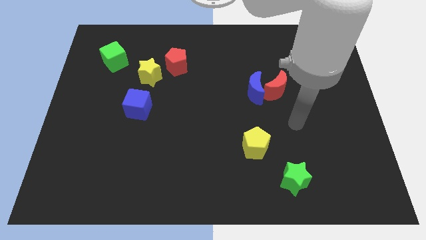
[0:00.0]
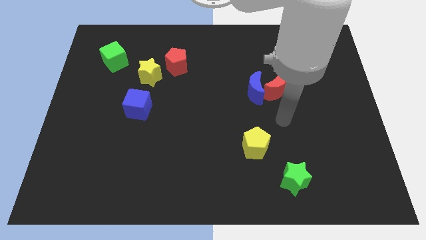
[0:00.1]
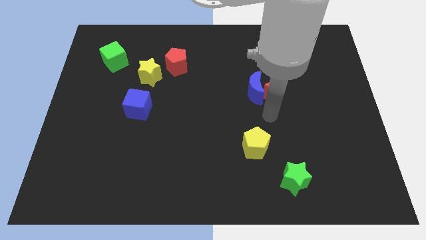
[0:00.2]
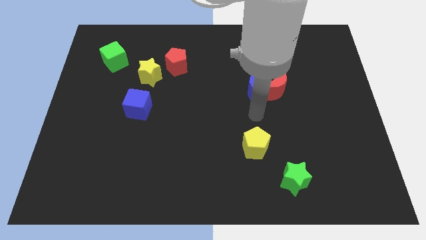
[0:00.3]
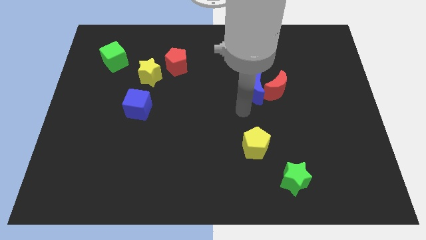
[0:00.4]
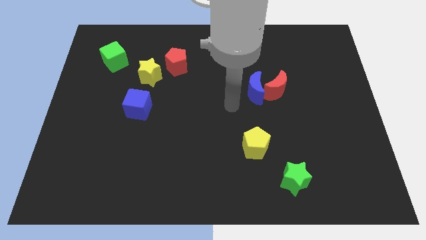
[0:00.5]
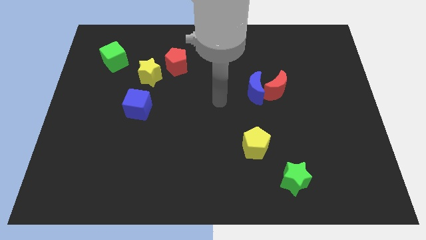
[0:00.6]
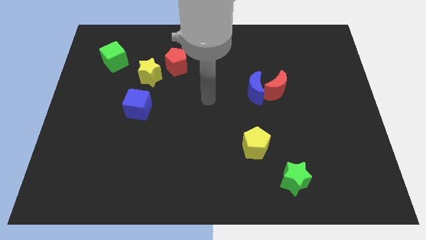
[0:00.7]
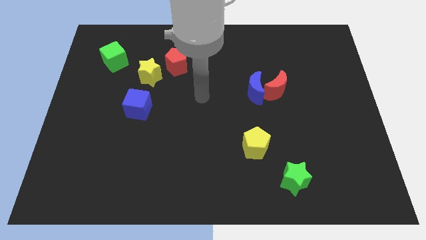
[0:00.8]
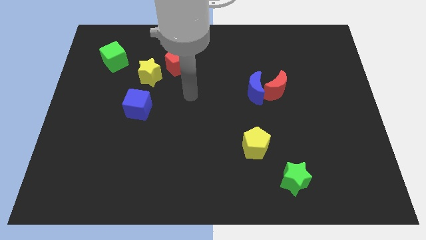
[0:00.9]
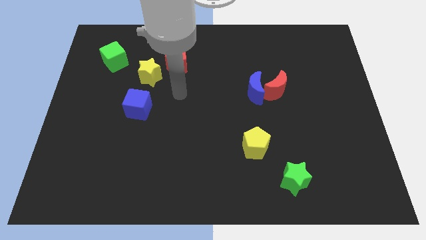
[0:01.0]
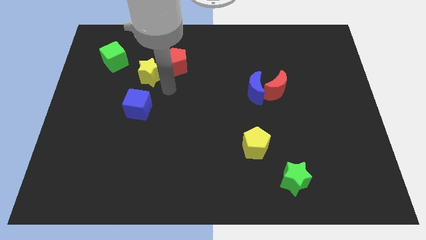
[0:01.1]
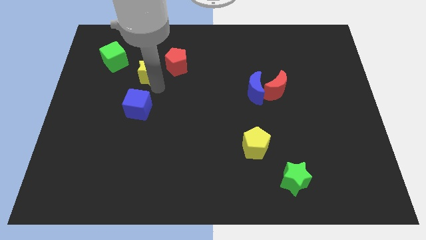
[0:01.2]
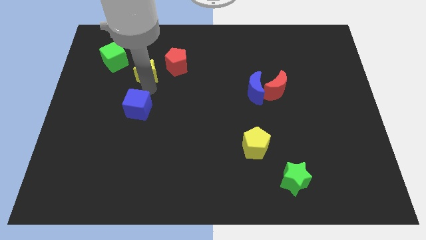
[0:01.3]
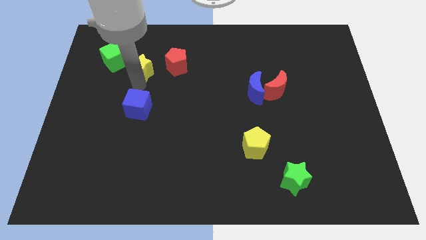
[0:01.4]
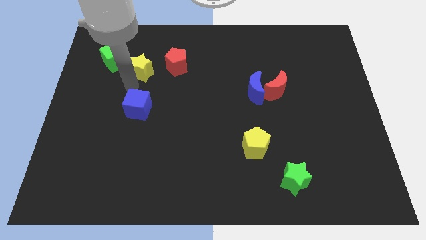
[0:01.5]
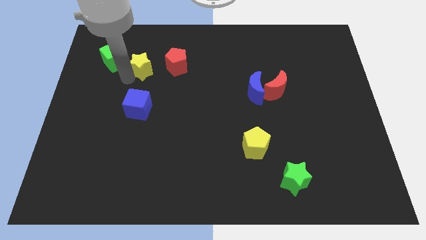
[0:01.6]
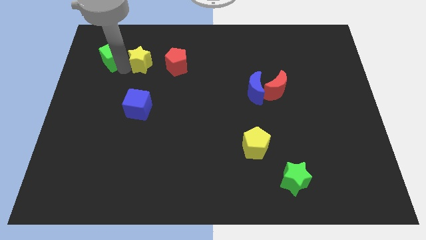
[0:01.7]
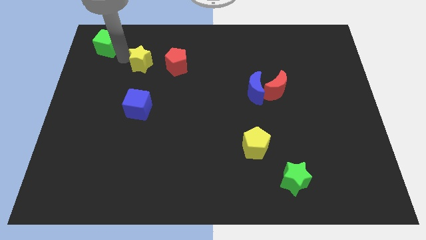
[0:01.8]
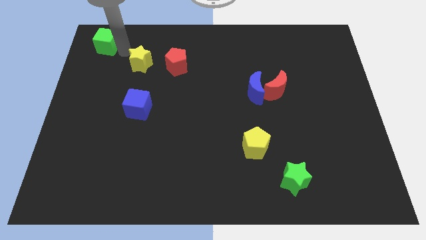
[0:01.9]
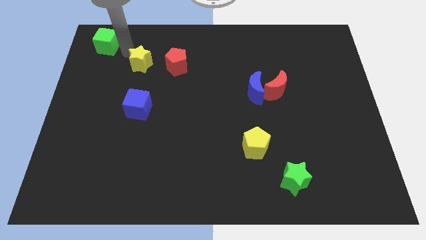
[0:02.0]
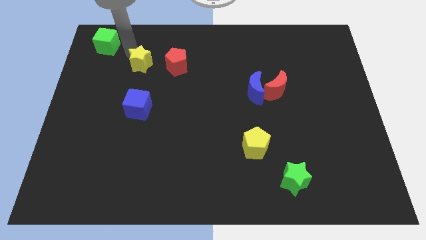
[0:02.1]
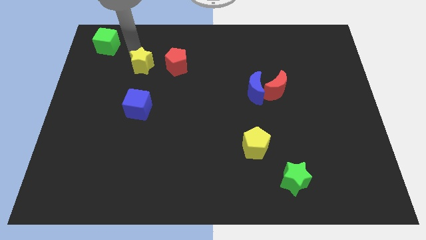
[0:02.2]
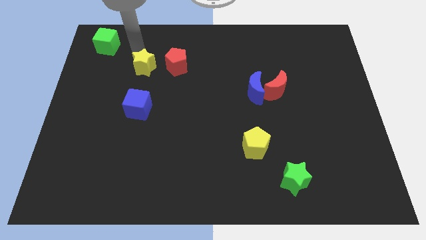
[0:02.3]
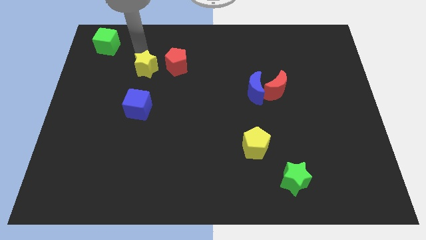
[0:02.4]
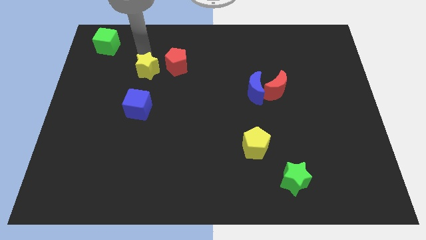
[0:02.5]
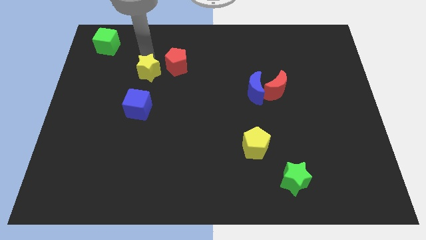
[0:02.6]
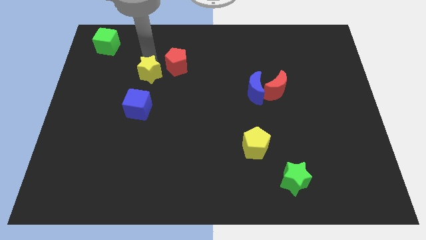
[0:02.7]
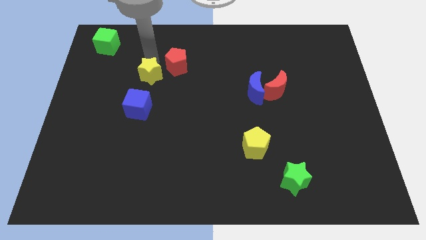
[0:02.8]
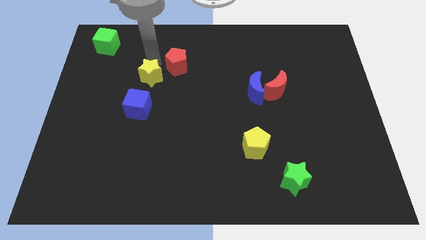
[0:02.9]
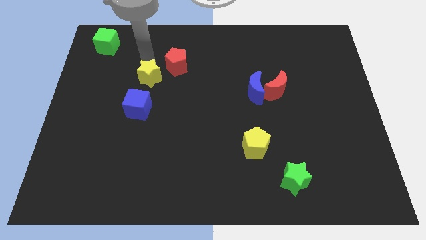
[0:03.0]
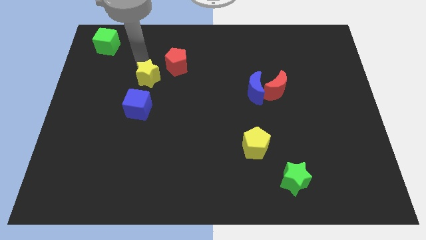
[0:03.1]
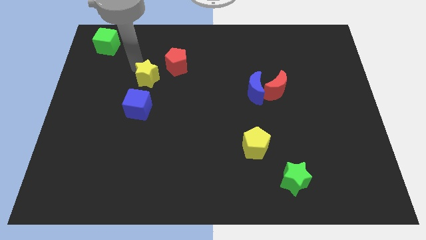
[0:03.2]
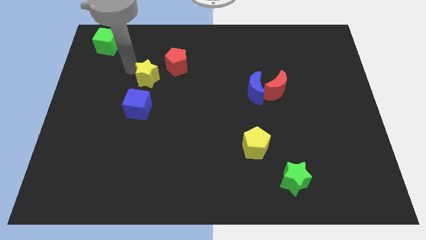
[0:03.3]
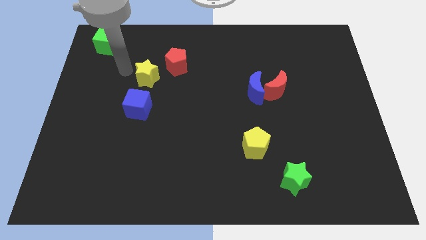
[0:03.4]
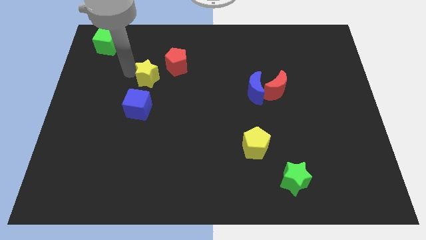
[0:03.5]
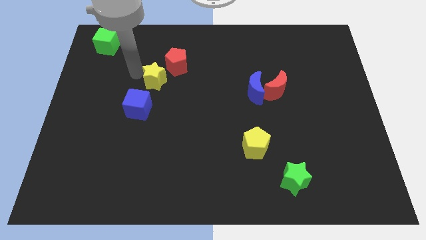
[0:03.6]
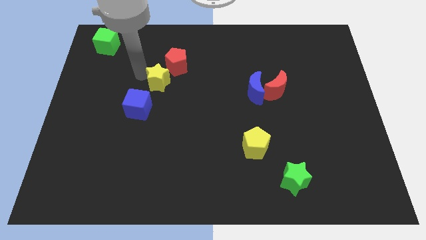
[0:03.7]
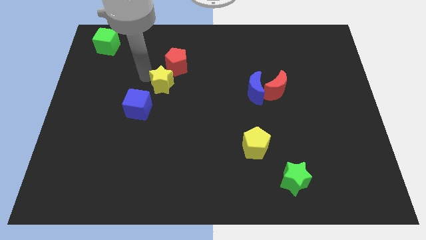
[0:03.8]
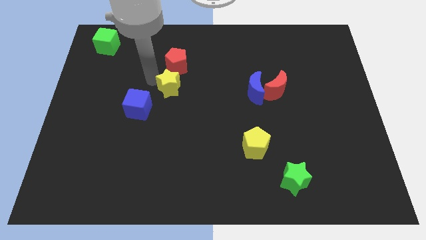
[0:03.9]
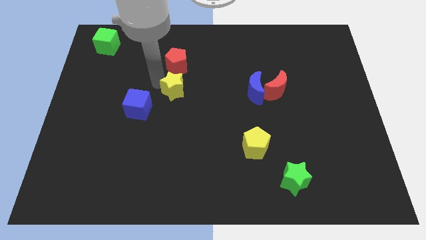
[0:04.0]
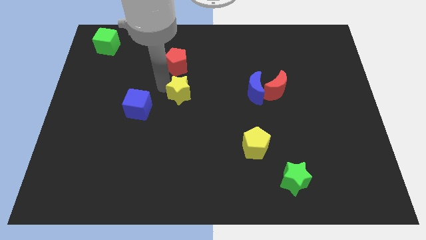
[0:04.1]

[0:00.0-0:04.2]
slightly slide the yellow star right

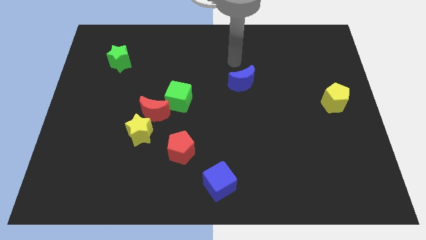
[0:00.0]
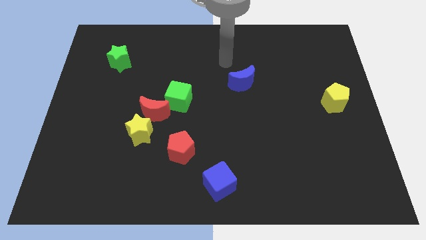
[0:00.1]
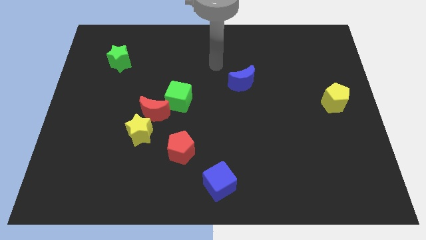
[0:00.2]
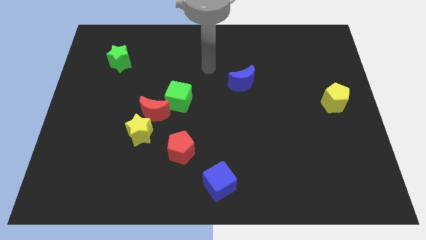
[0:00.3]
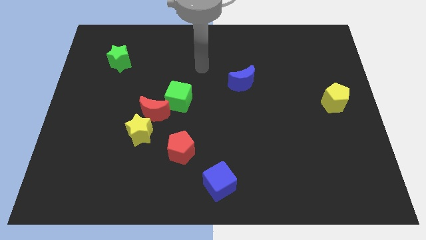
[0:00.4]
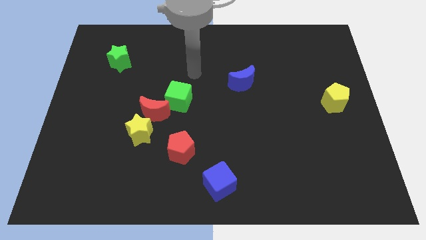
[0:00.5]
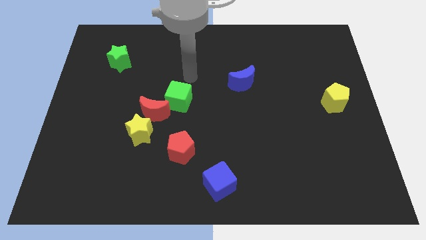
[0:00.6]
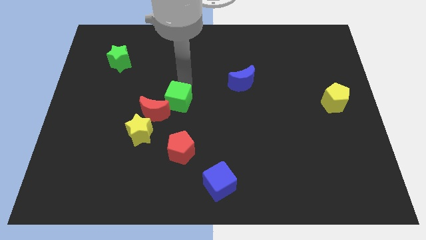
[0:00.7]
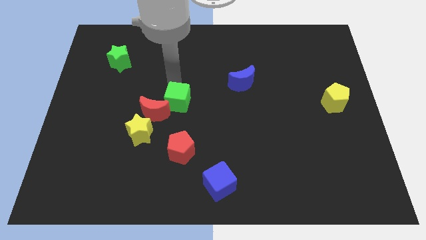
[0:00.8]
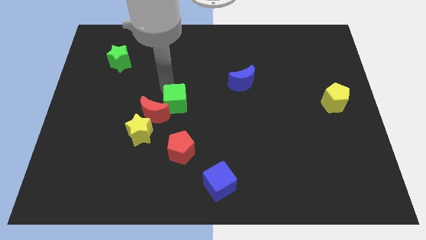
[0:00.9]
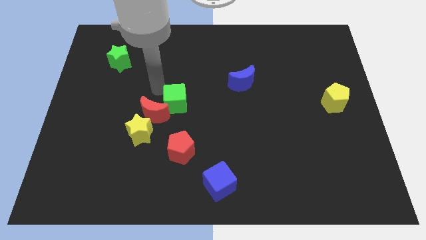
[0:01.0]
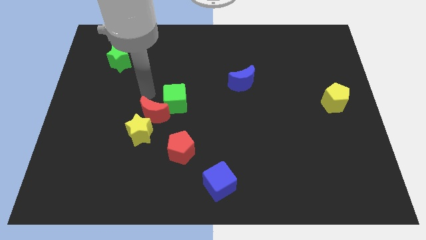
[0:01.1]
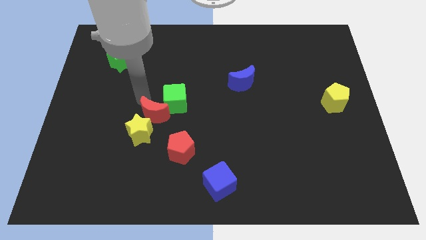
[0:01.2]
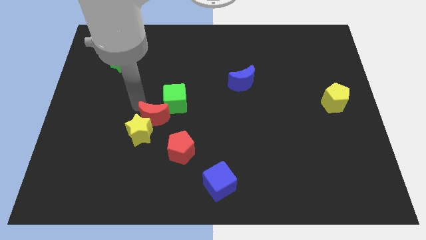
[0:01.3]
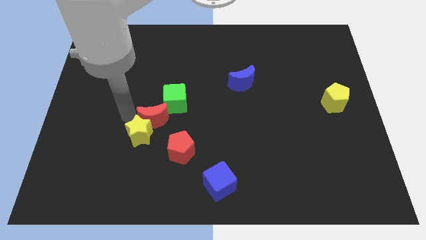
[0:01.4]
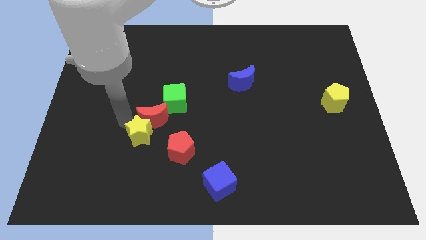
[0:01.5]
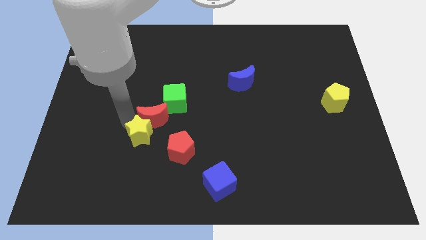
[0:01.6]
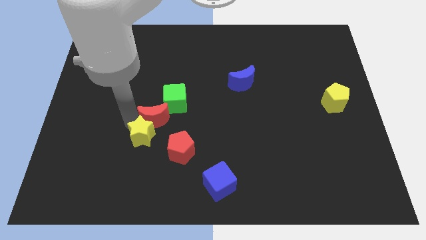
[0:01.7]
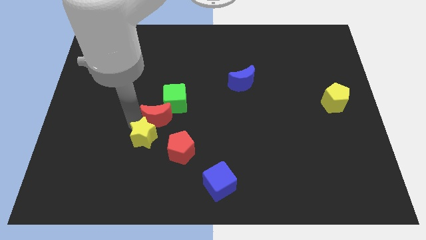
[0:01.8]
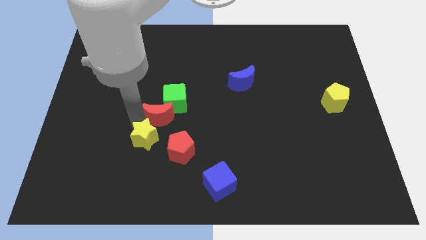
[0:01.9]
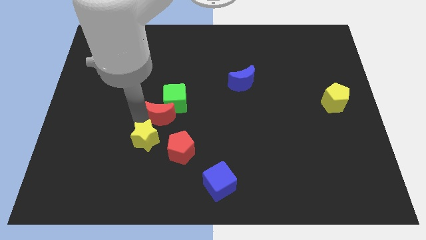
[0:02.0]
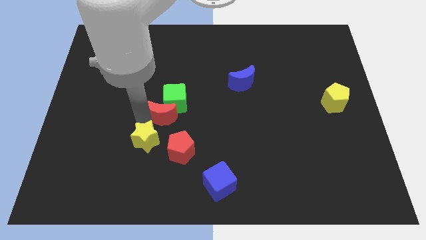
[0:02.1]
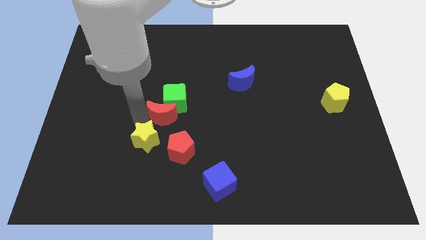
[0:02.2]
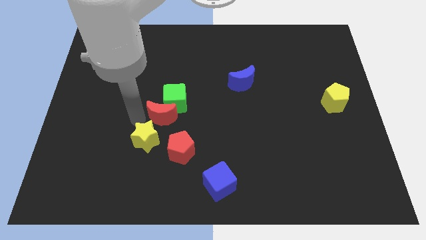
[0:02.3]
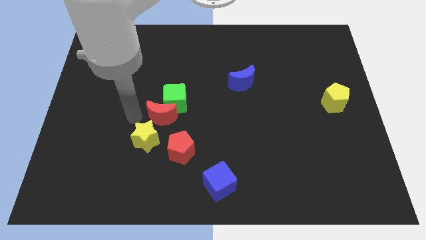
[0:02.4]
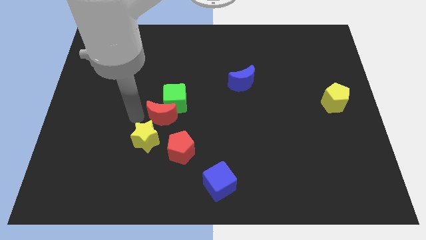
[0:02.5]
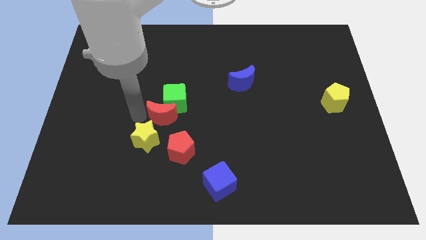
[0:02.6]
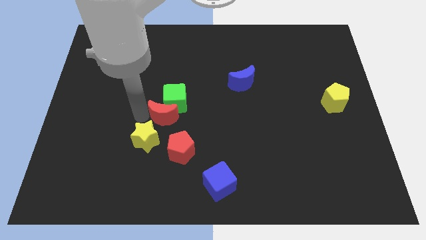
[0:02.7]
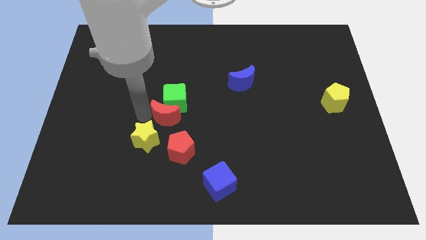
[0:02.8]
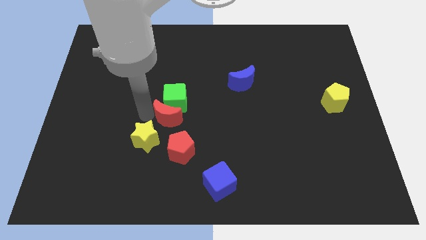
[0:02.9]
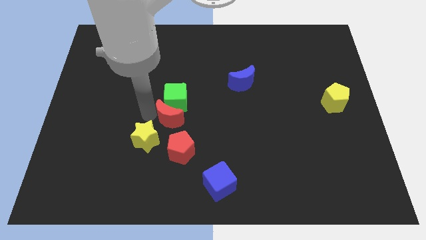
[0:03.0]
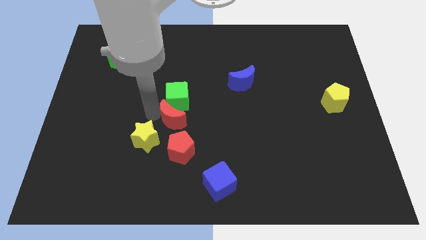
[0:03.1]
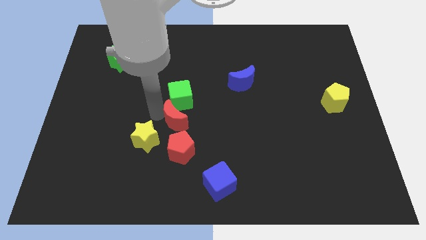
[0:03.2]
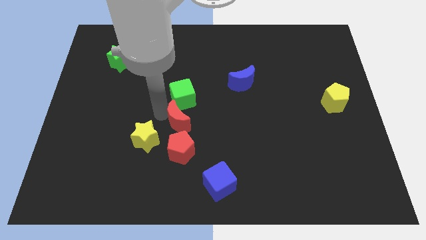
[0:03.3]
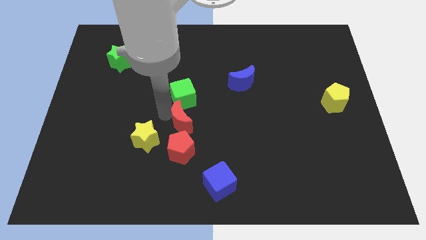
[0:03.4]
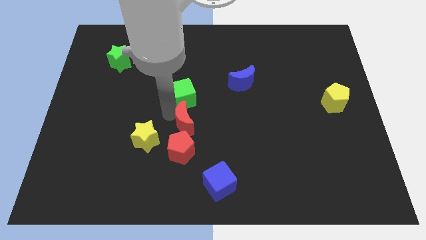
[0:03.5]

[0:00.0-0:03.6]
move the red moon to the right a bit

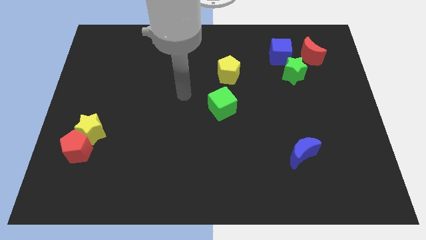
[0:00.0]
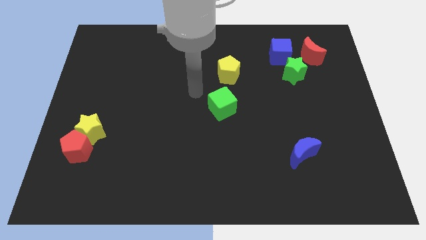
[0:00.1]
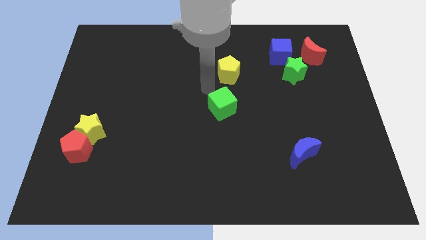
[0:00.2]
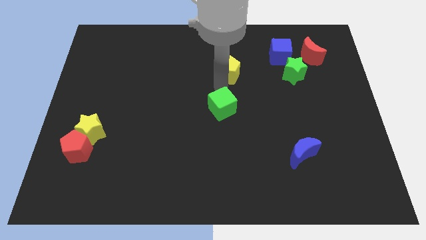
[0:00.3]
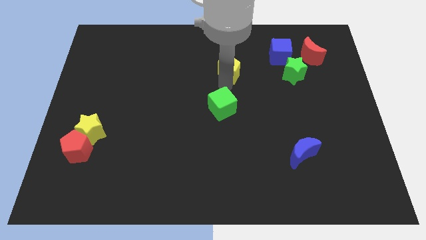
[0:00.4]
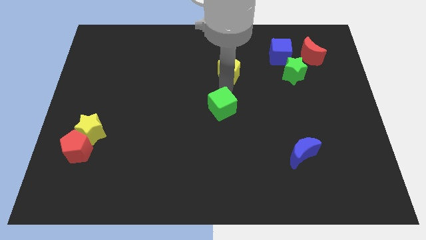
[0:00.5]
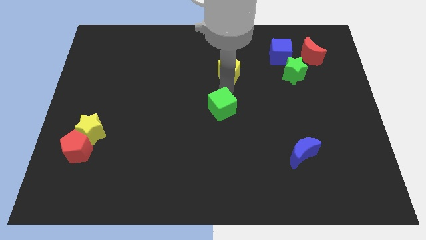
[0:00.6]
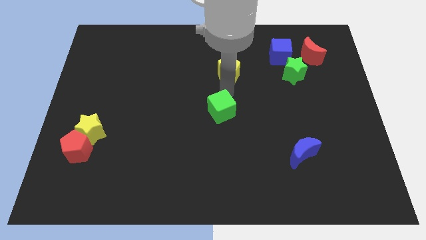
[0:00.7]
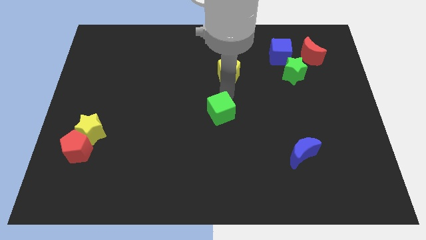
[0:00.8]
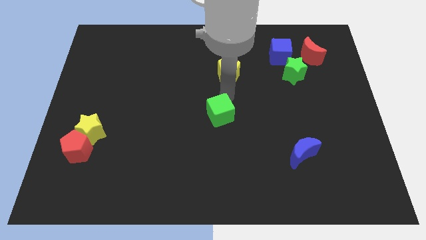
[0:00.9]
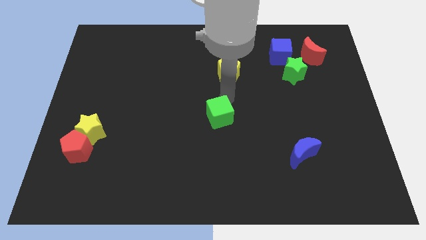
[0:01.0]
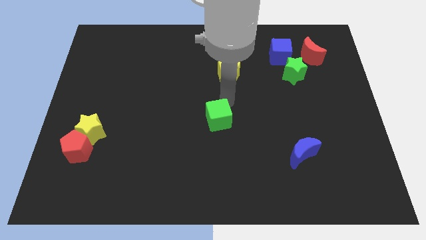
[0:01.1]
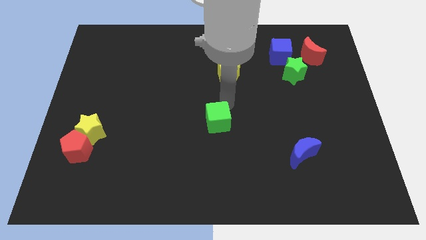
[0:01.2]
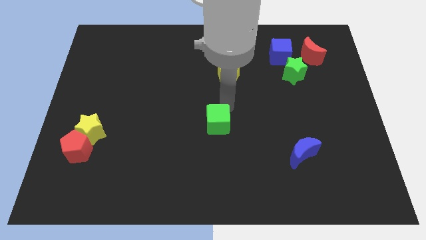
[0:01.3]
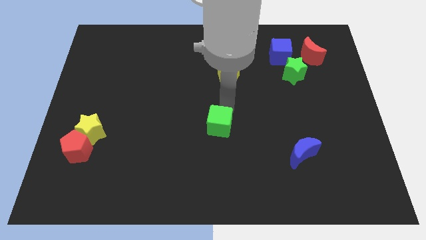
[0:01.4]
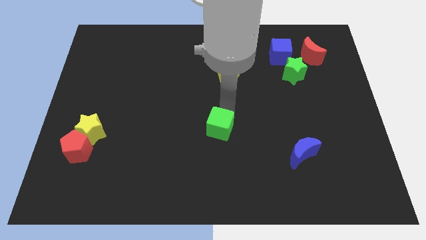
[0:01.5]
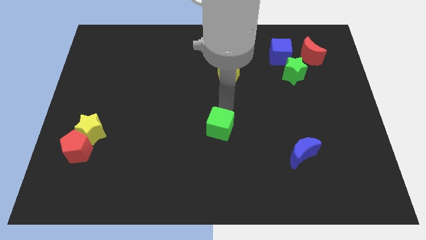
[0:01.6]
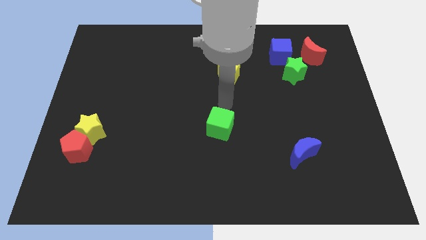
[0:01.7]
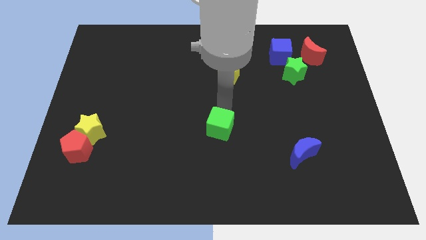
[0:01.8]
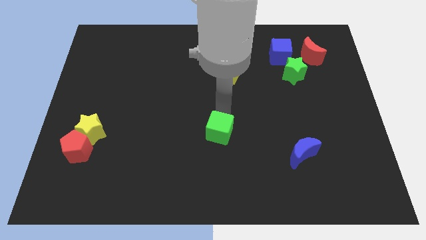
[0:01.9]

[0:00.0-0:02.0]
slightly move the green cube down
